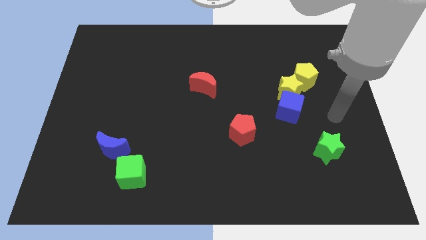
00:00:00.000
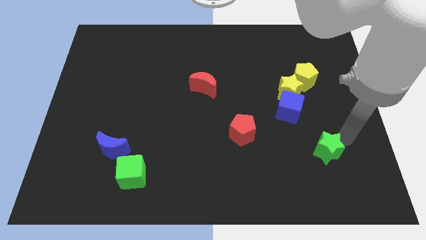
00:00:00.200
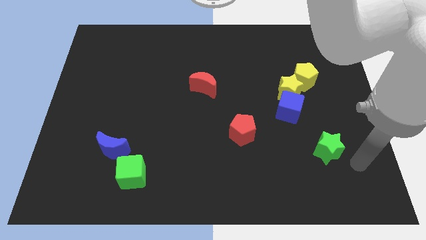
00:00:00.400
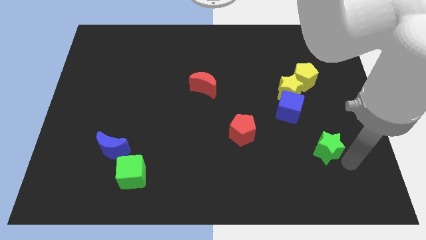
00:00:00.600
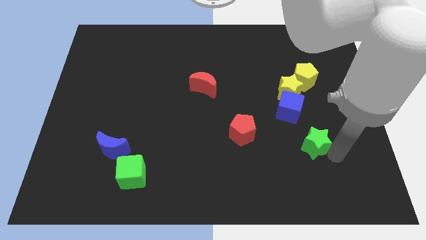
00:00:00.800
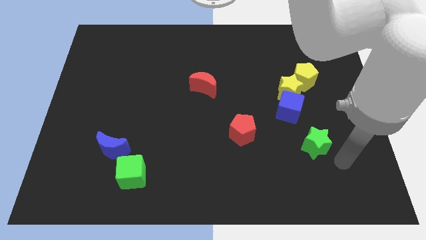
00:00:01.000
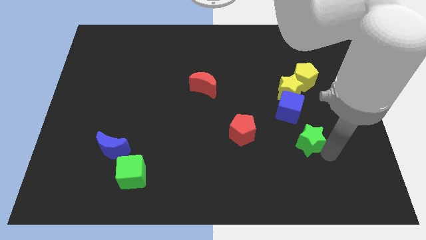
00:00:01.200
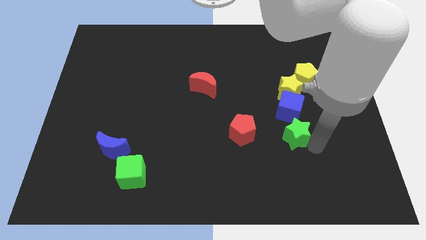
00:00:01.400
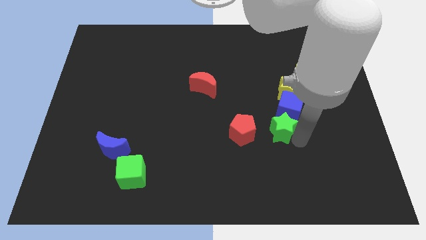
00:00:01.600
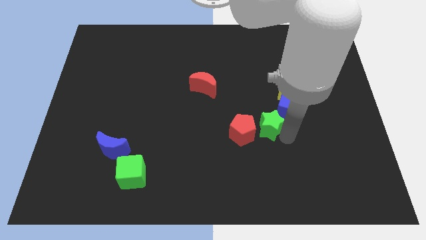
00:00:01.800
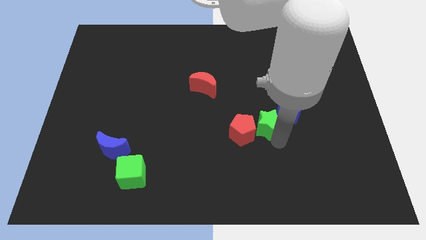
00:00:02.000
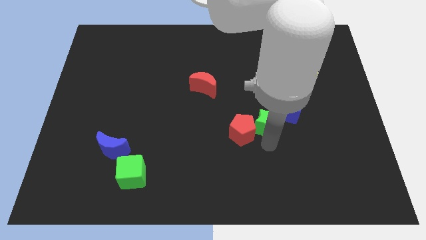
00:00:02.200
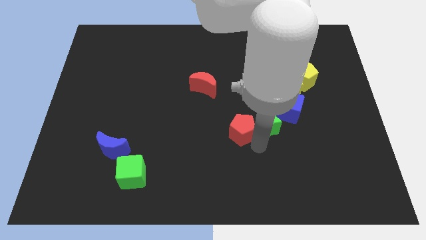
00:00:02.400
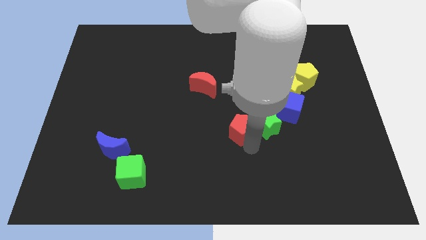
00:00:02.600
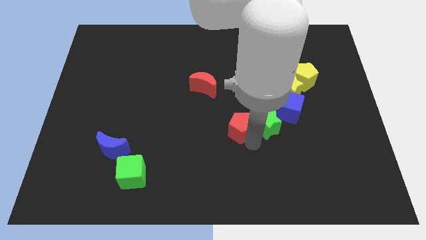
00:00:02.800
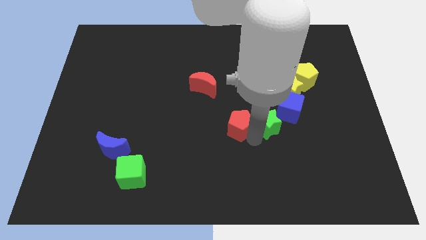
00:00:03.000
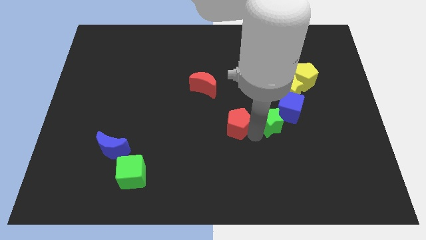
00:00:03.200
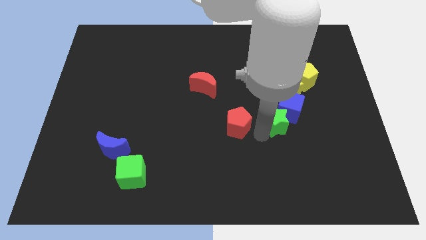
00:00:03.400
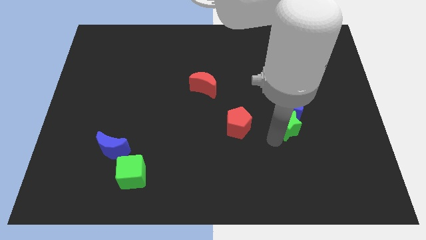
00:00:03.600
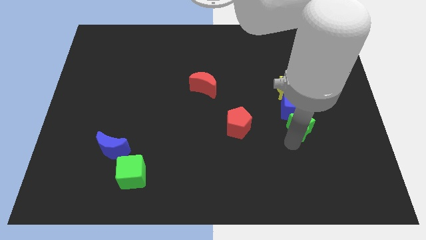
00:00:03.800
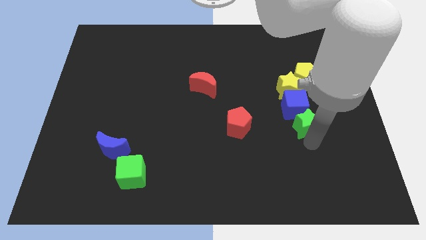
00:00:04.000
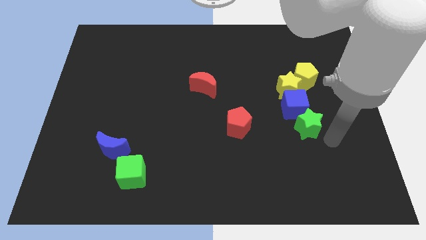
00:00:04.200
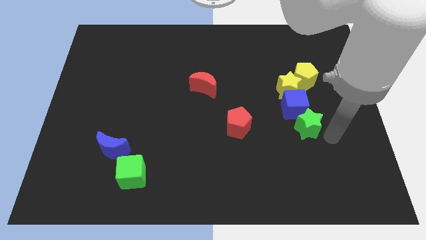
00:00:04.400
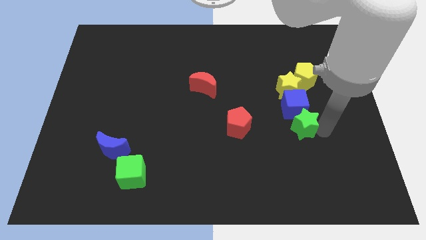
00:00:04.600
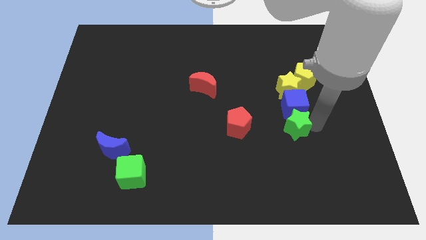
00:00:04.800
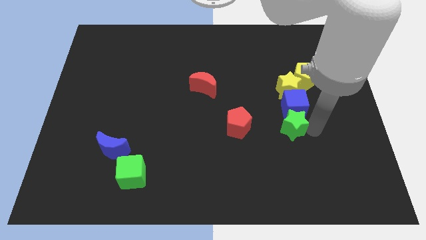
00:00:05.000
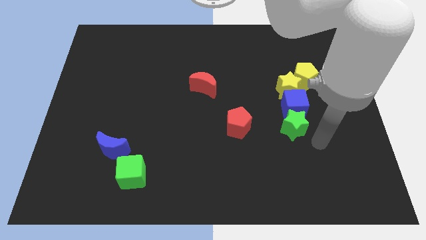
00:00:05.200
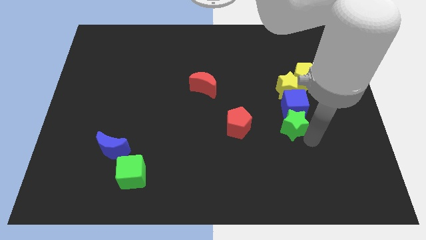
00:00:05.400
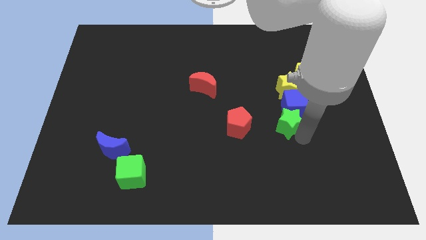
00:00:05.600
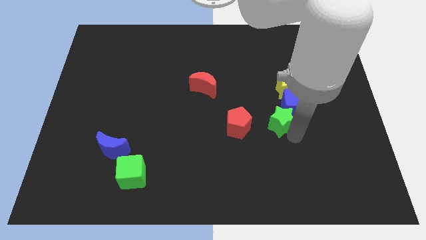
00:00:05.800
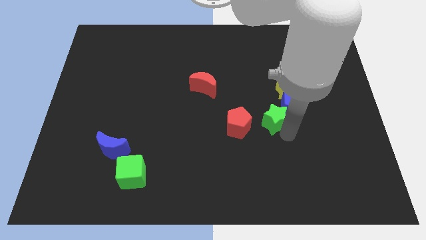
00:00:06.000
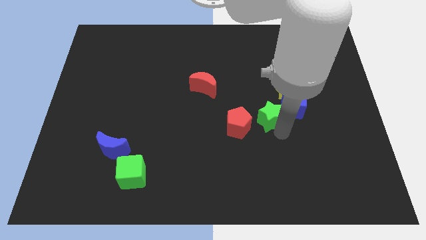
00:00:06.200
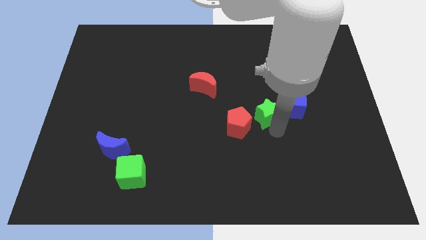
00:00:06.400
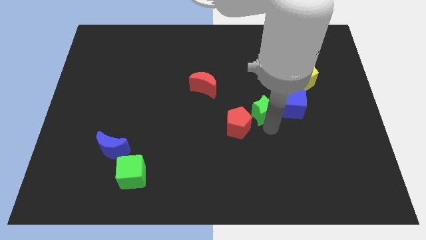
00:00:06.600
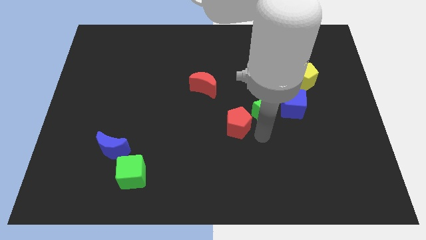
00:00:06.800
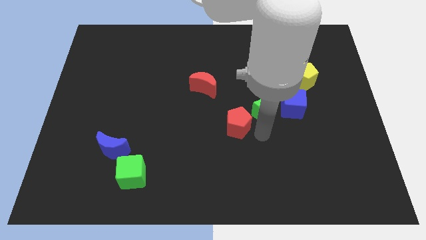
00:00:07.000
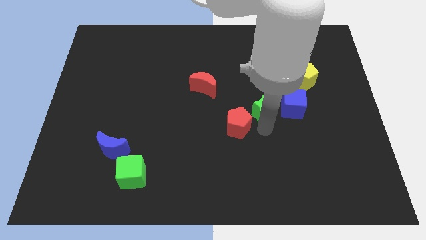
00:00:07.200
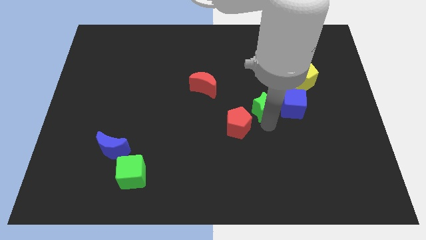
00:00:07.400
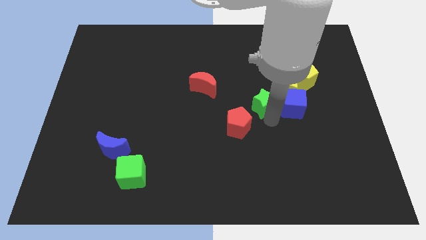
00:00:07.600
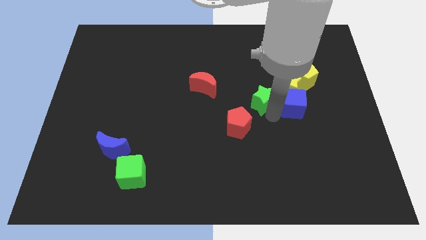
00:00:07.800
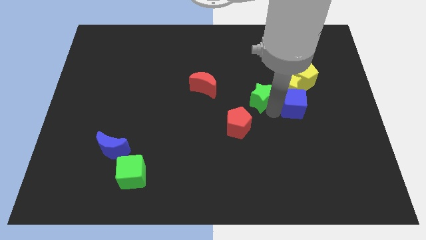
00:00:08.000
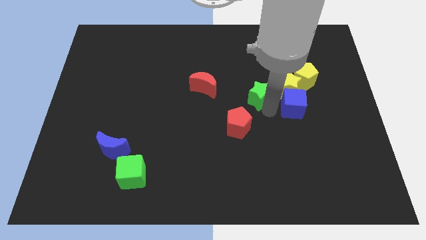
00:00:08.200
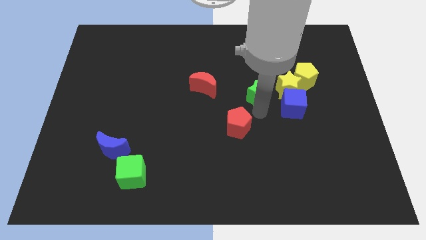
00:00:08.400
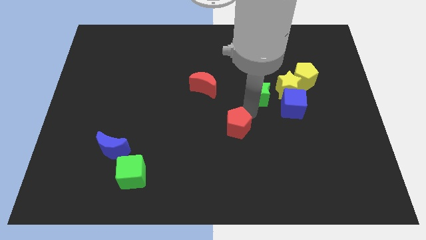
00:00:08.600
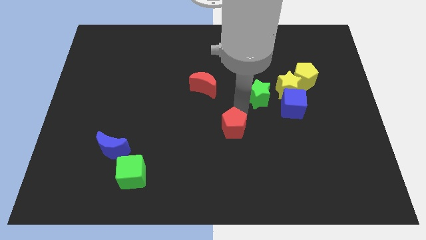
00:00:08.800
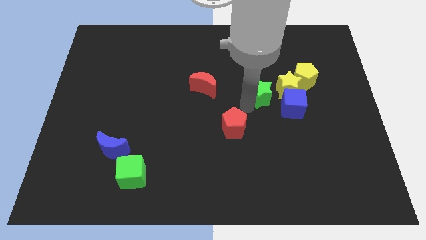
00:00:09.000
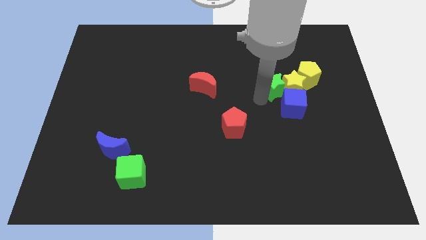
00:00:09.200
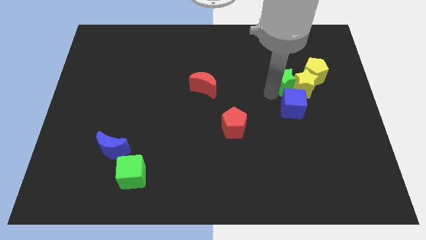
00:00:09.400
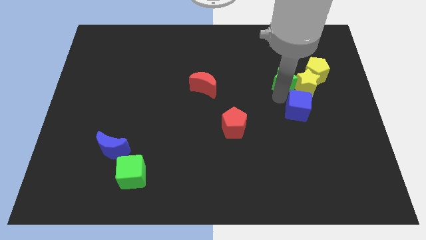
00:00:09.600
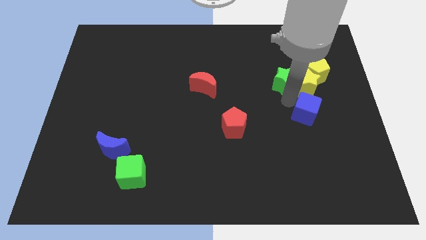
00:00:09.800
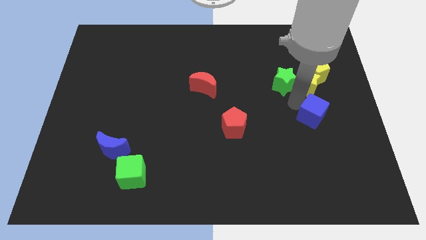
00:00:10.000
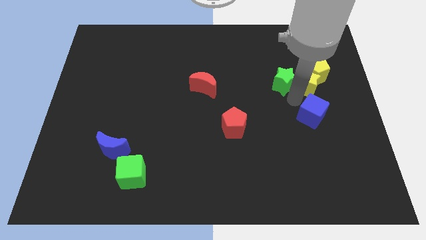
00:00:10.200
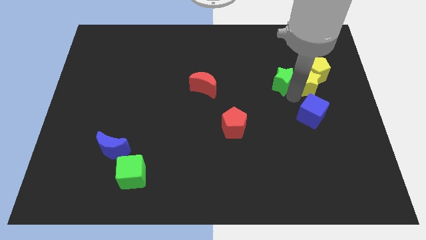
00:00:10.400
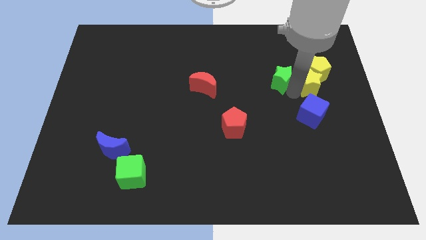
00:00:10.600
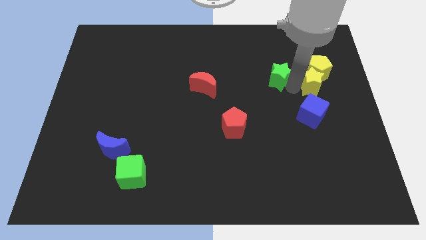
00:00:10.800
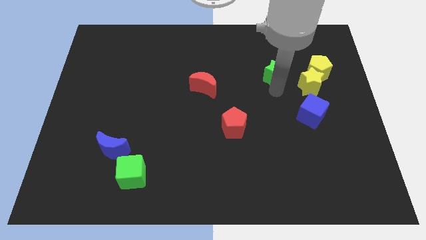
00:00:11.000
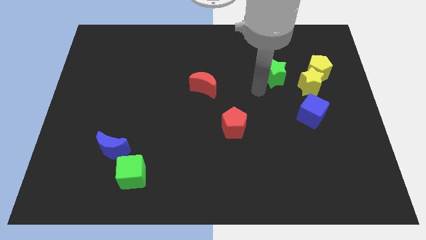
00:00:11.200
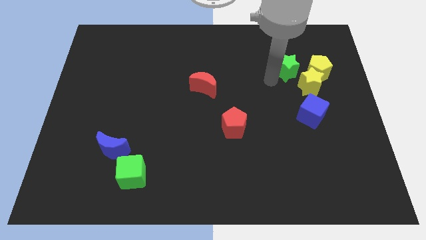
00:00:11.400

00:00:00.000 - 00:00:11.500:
slide the green star to the top side of the yellow star

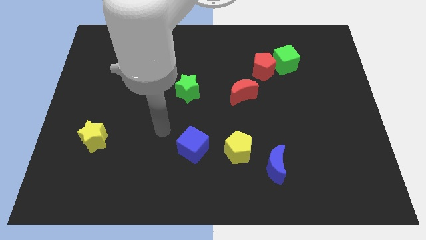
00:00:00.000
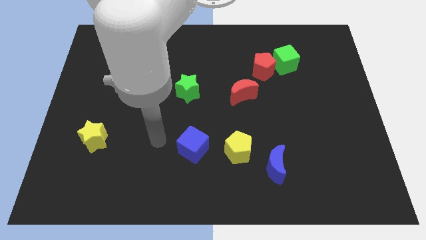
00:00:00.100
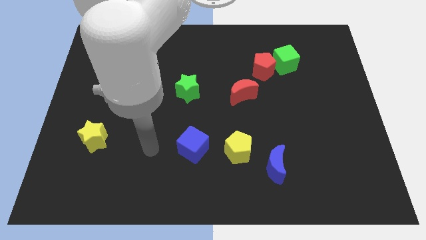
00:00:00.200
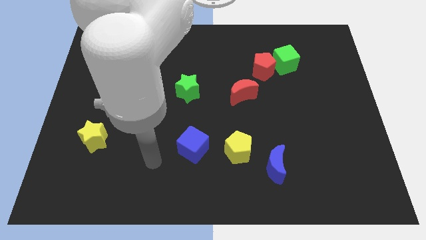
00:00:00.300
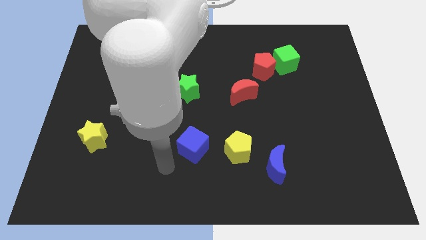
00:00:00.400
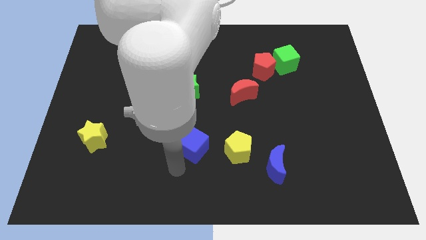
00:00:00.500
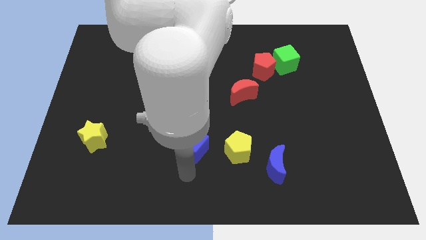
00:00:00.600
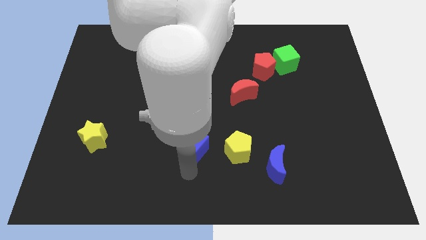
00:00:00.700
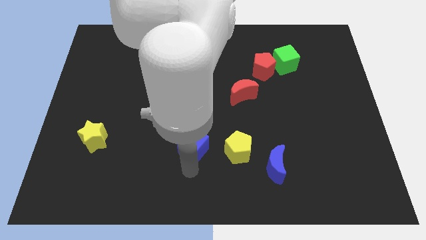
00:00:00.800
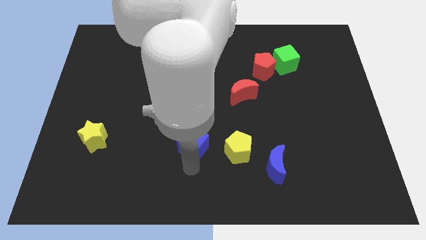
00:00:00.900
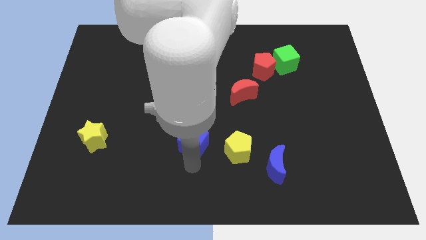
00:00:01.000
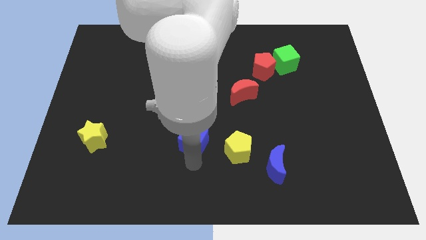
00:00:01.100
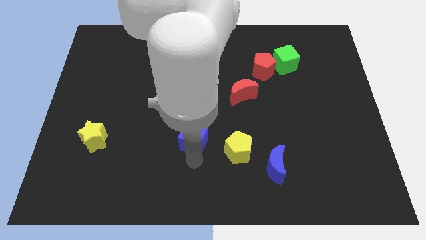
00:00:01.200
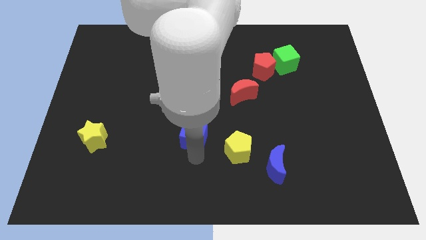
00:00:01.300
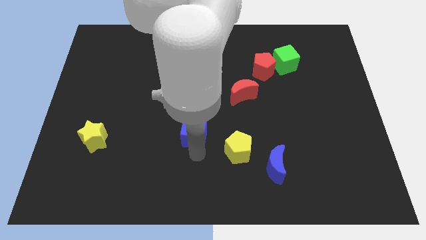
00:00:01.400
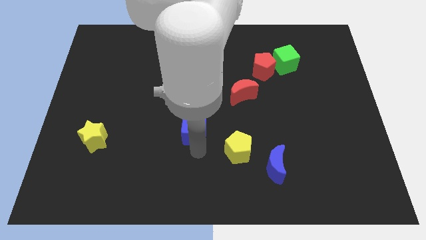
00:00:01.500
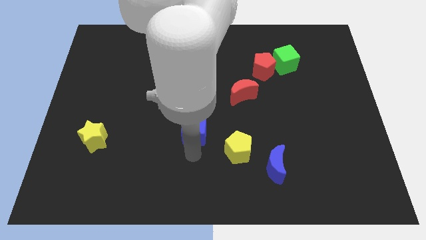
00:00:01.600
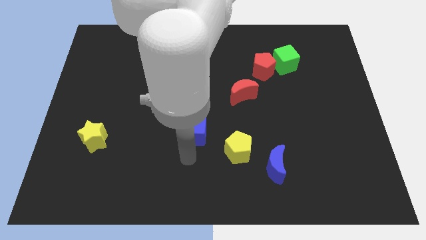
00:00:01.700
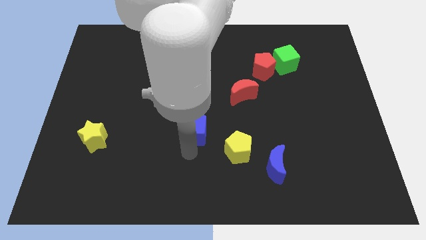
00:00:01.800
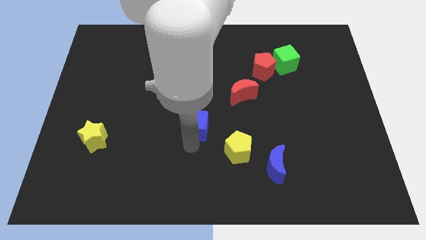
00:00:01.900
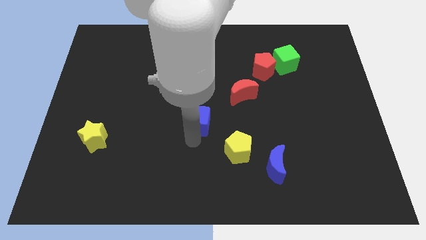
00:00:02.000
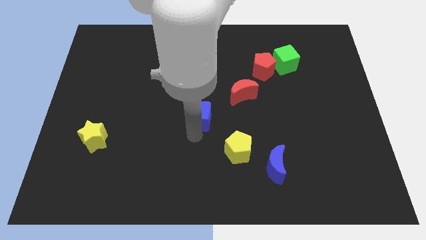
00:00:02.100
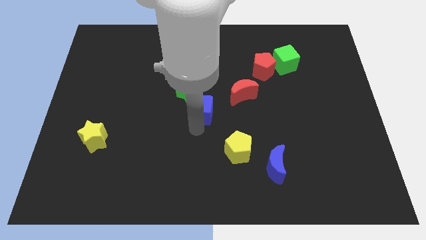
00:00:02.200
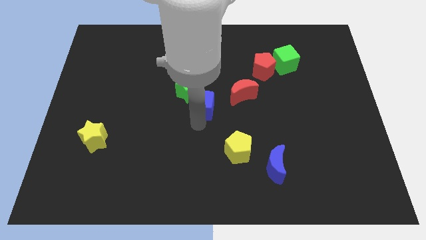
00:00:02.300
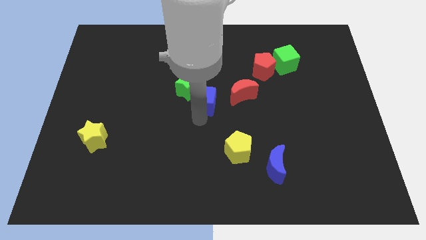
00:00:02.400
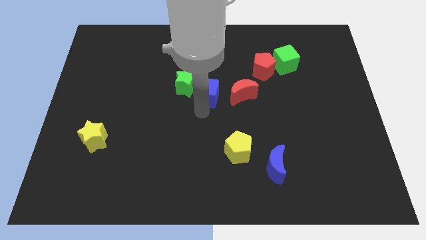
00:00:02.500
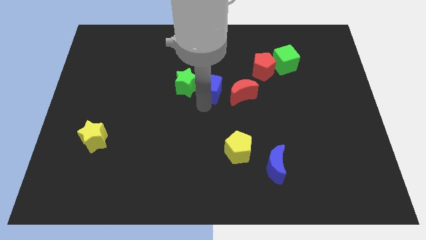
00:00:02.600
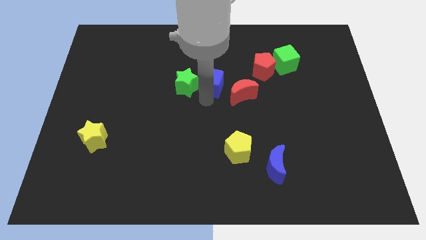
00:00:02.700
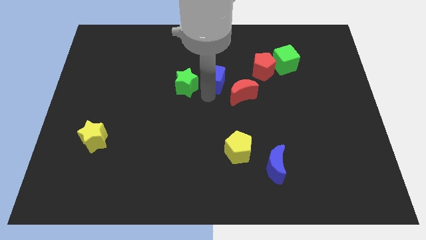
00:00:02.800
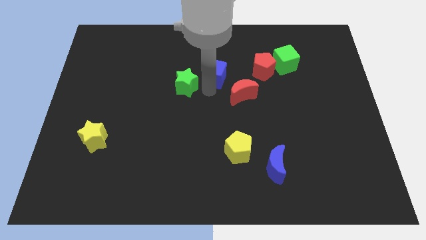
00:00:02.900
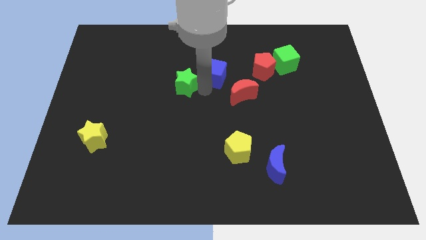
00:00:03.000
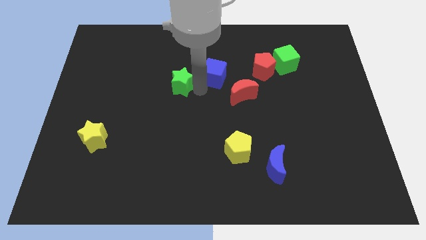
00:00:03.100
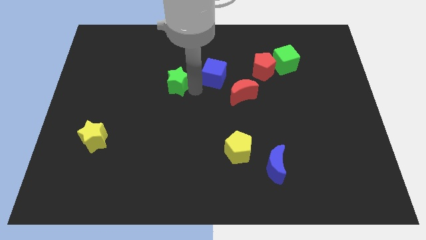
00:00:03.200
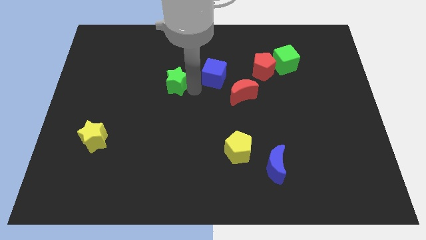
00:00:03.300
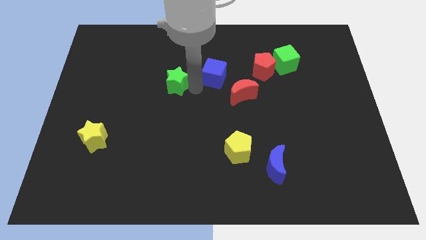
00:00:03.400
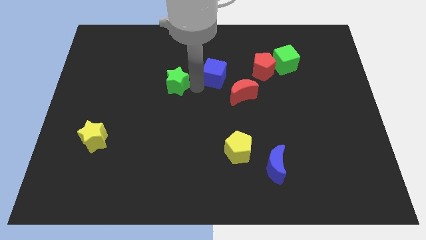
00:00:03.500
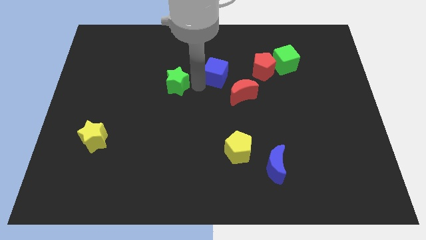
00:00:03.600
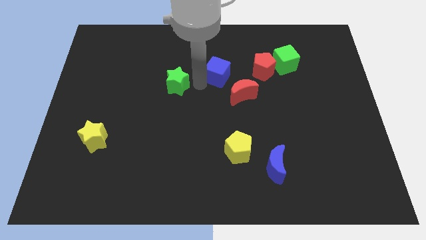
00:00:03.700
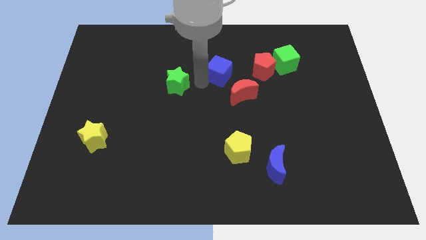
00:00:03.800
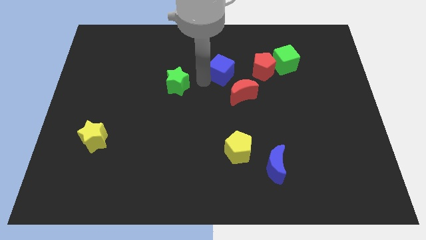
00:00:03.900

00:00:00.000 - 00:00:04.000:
slide the blue cube to the top of the red moon
